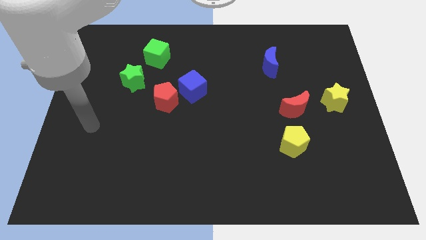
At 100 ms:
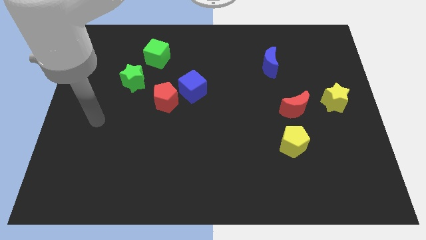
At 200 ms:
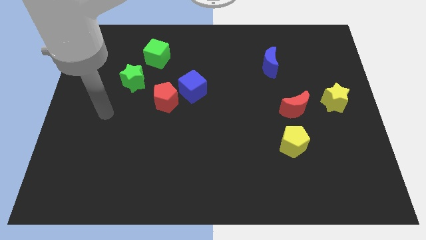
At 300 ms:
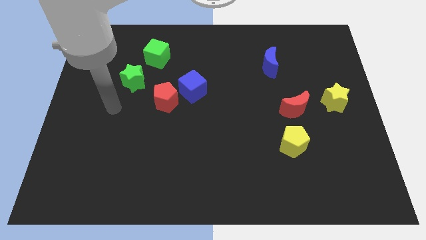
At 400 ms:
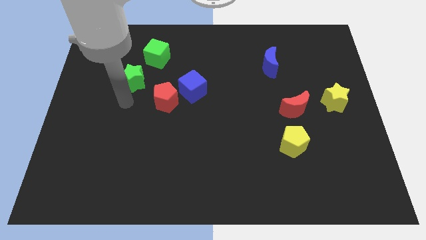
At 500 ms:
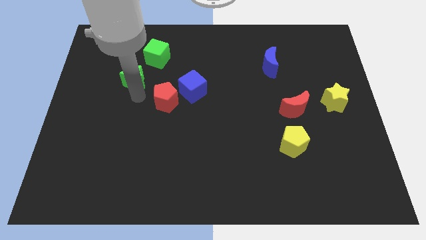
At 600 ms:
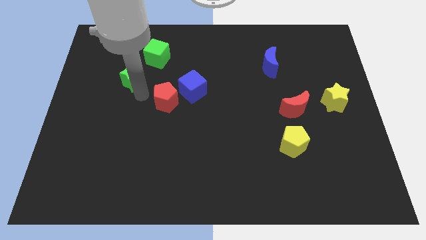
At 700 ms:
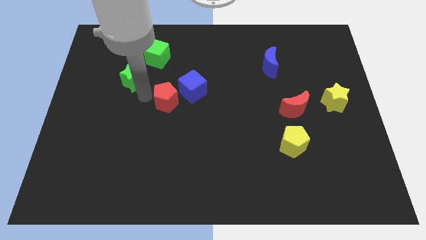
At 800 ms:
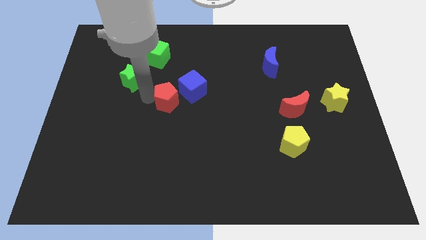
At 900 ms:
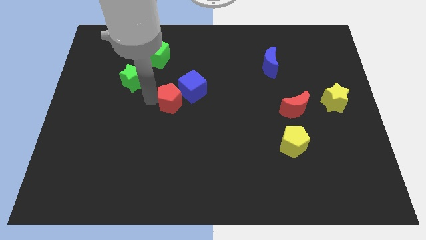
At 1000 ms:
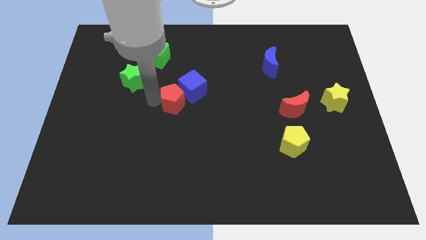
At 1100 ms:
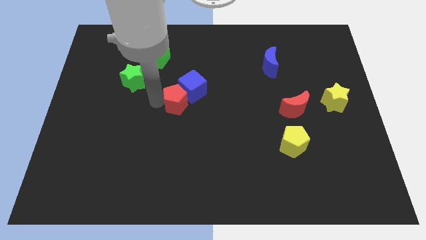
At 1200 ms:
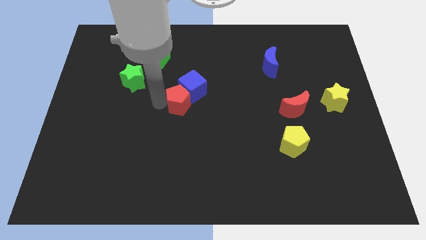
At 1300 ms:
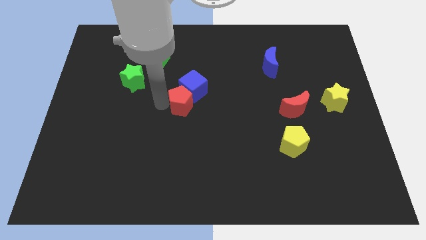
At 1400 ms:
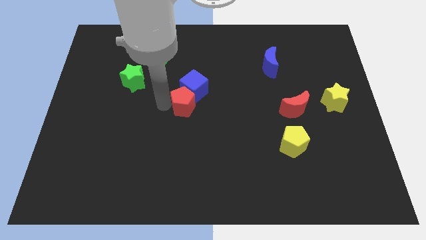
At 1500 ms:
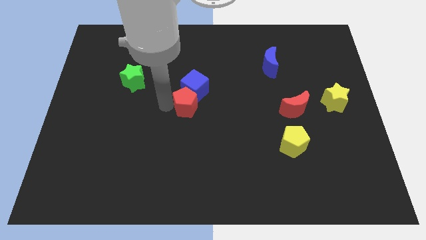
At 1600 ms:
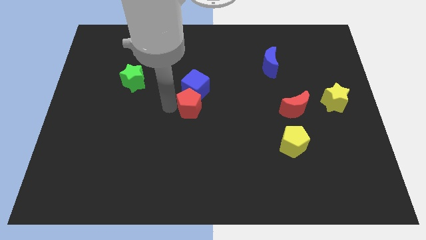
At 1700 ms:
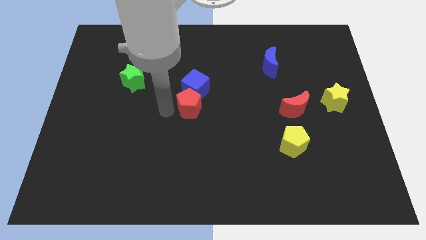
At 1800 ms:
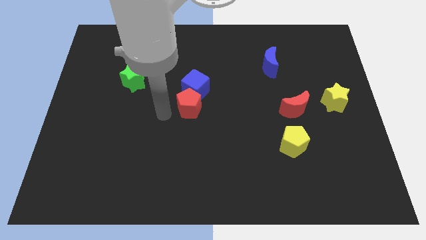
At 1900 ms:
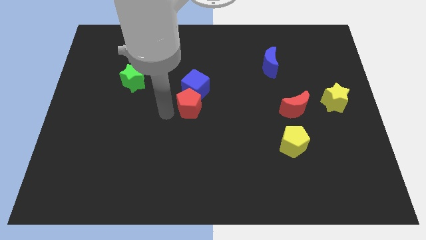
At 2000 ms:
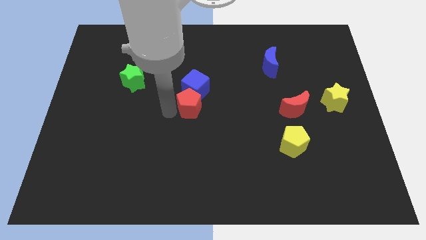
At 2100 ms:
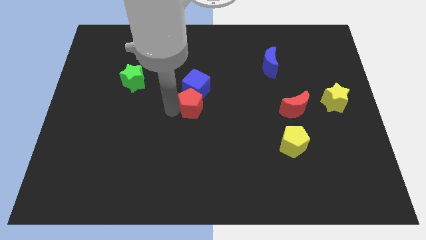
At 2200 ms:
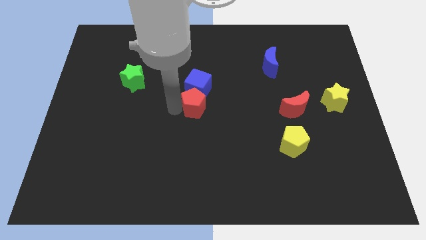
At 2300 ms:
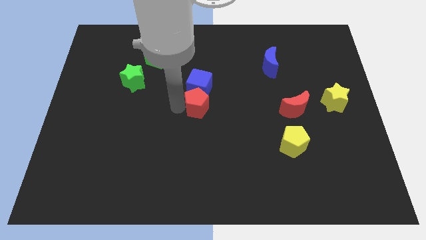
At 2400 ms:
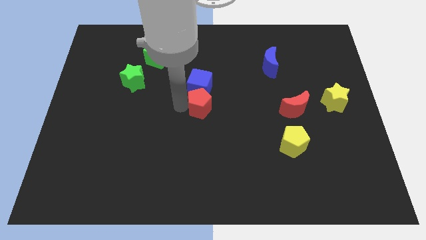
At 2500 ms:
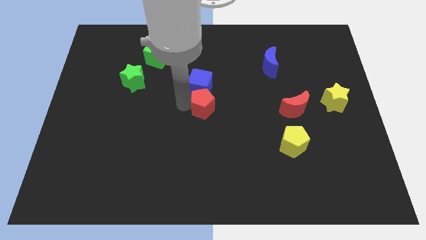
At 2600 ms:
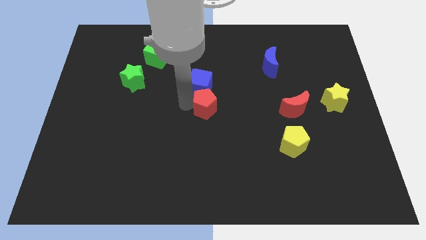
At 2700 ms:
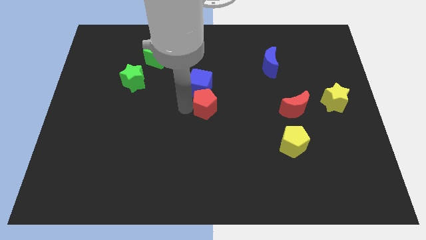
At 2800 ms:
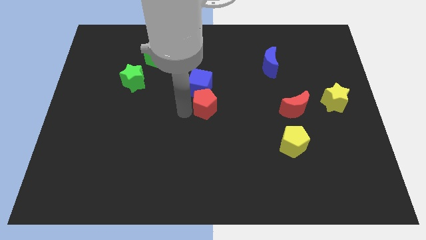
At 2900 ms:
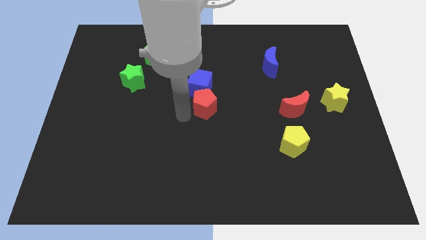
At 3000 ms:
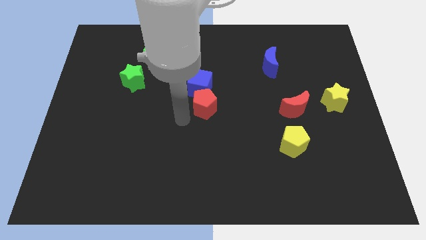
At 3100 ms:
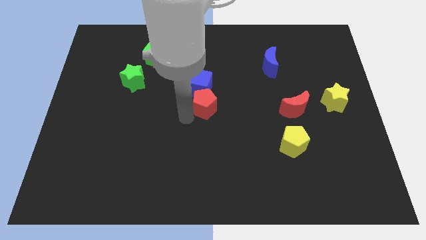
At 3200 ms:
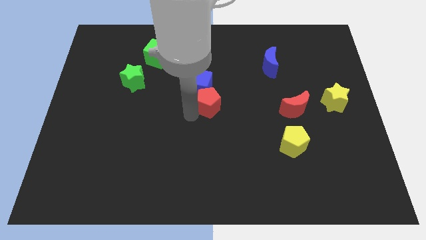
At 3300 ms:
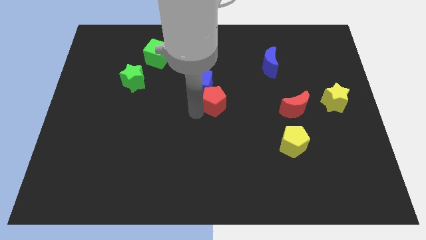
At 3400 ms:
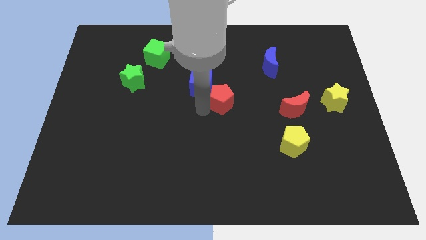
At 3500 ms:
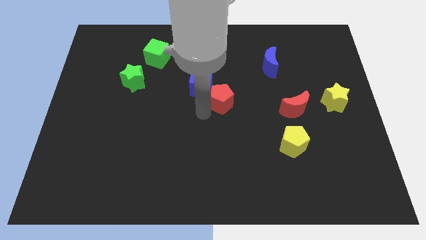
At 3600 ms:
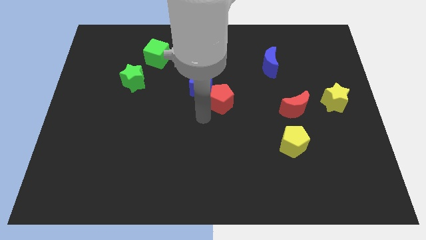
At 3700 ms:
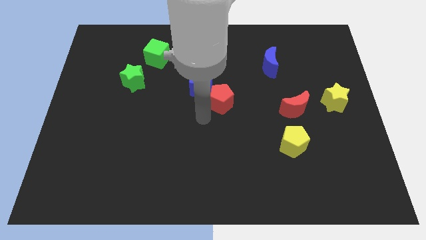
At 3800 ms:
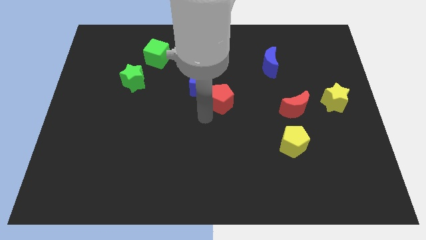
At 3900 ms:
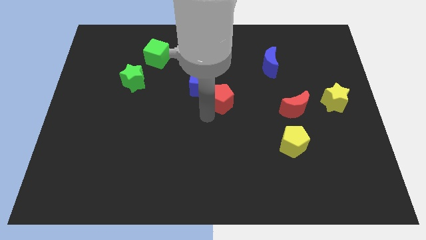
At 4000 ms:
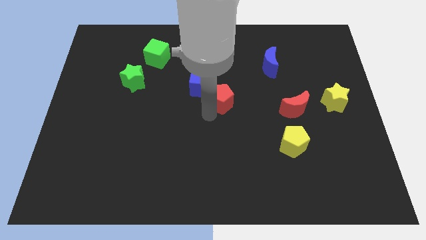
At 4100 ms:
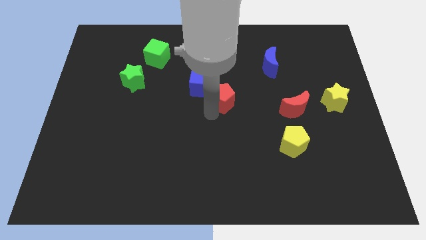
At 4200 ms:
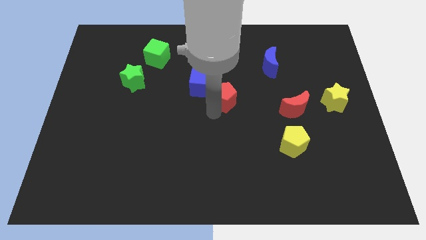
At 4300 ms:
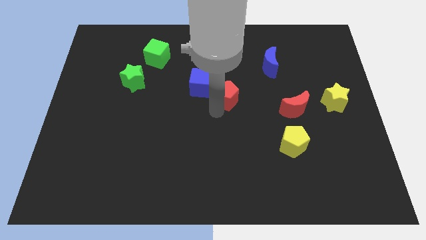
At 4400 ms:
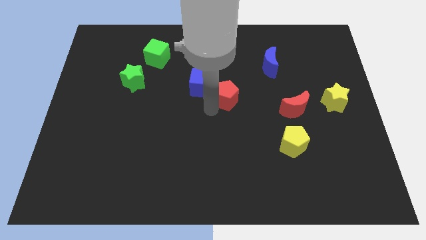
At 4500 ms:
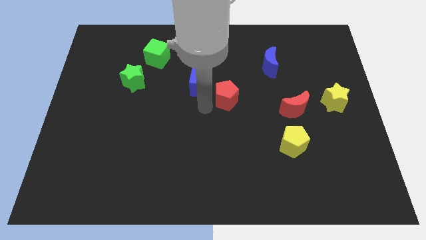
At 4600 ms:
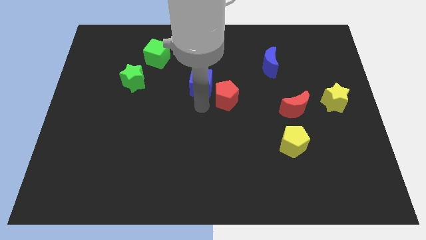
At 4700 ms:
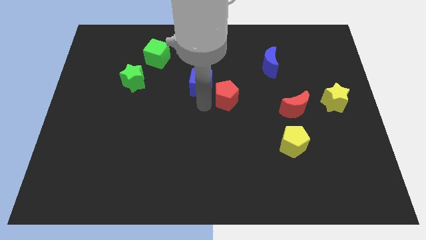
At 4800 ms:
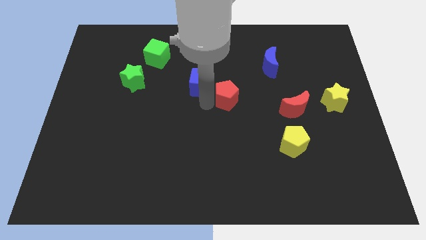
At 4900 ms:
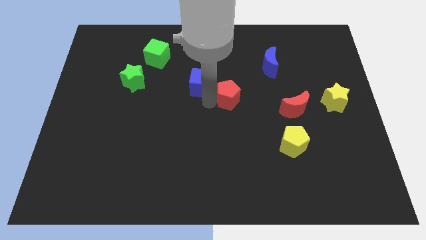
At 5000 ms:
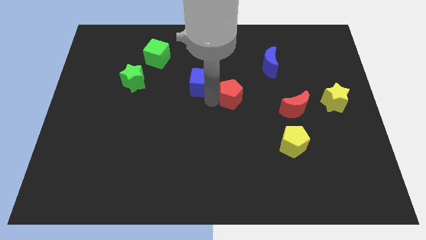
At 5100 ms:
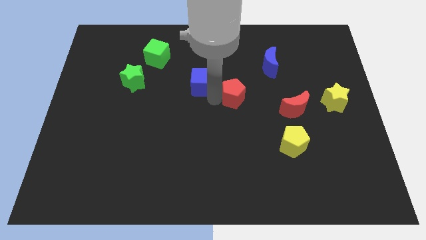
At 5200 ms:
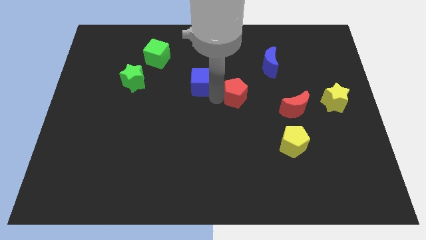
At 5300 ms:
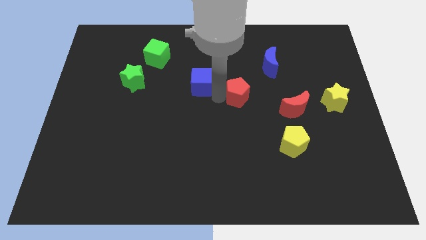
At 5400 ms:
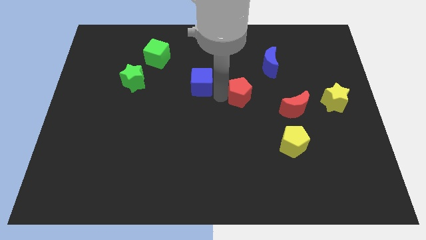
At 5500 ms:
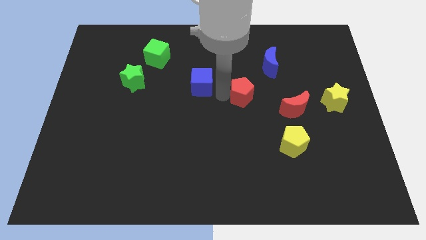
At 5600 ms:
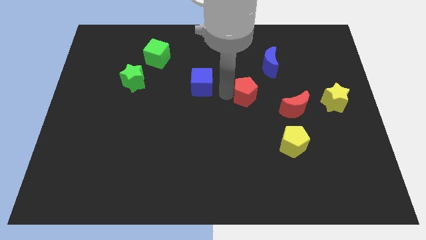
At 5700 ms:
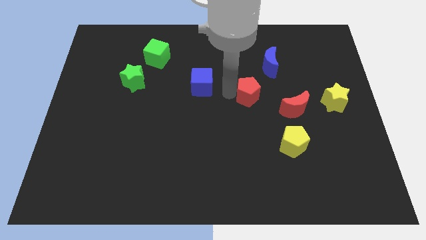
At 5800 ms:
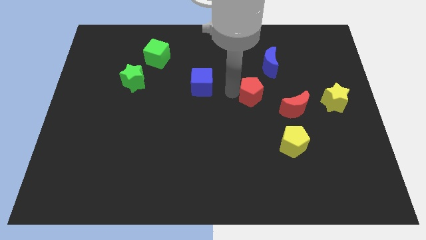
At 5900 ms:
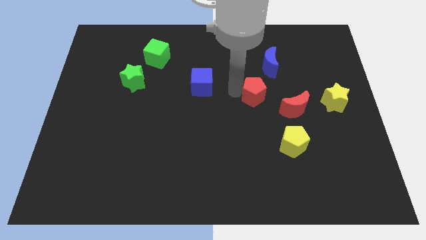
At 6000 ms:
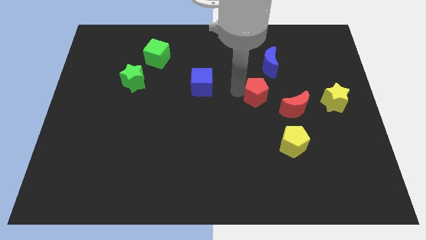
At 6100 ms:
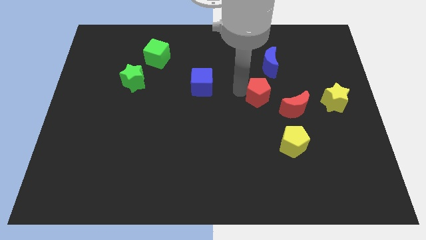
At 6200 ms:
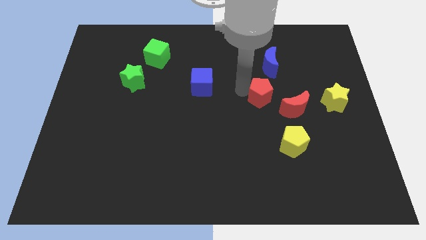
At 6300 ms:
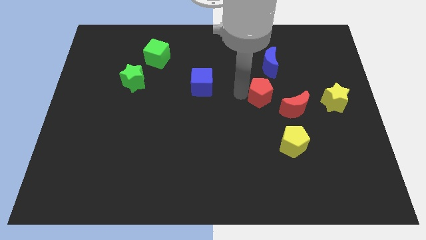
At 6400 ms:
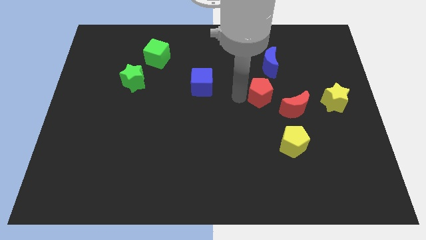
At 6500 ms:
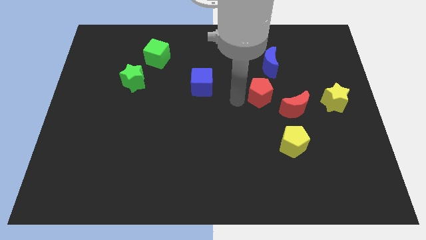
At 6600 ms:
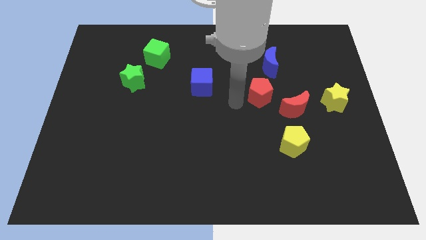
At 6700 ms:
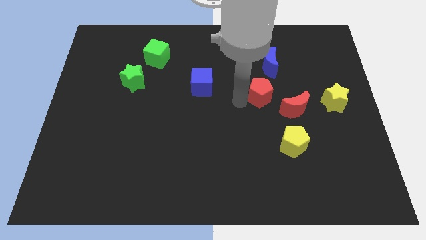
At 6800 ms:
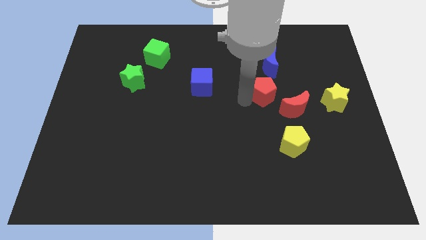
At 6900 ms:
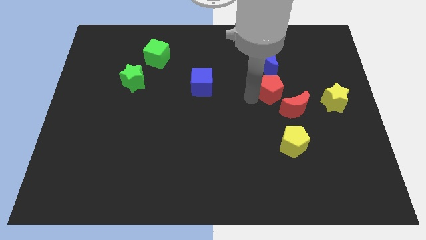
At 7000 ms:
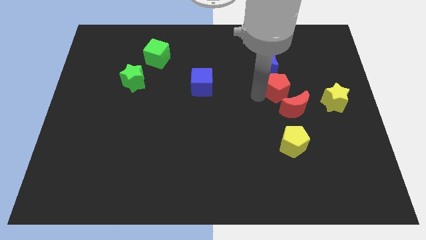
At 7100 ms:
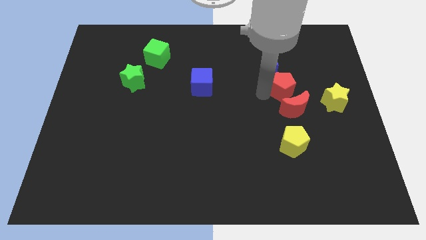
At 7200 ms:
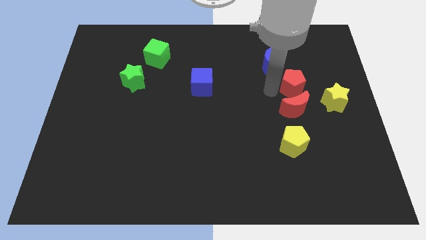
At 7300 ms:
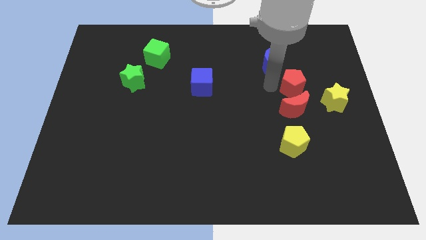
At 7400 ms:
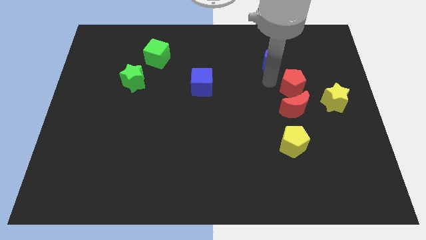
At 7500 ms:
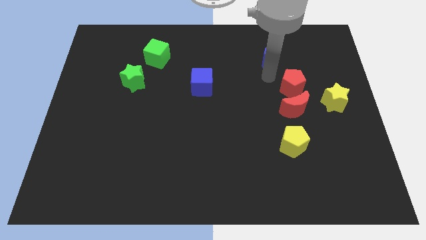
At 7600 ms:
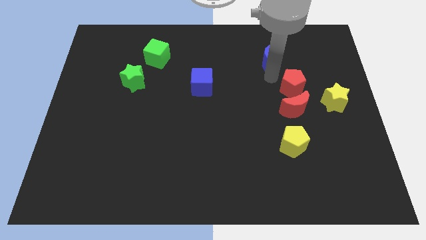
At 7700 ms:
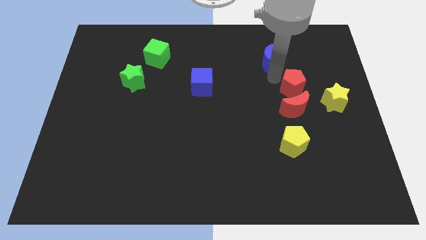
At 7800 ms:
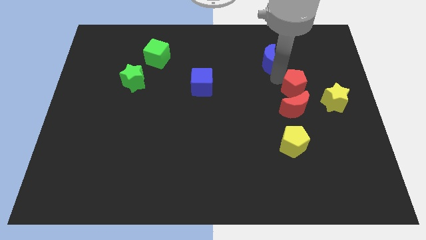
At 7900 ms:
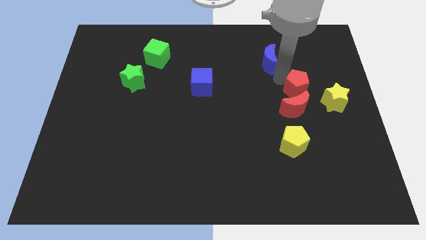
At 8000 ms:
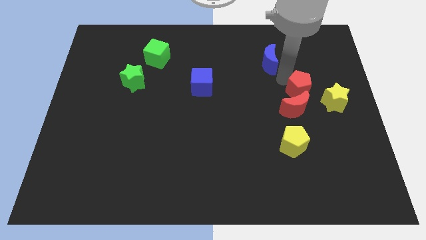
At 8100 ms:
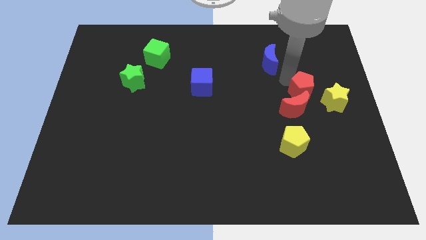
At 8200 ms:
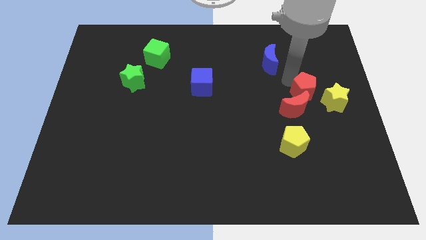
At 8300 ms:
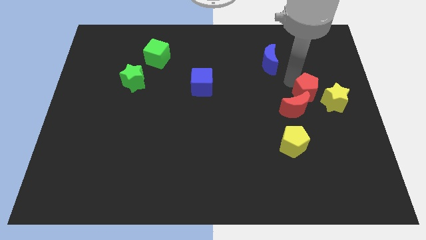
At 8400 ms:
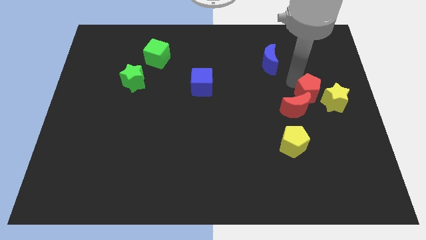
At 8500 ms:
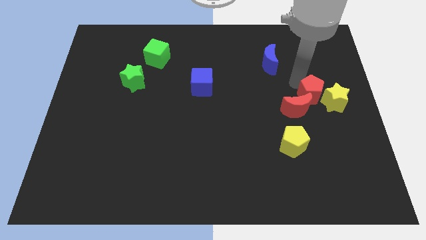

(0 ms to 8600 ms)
put the red pentagon to the yellow star
